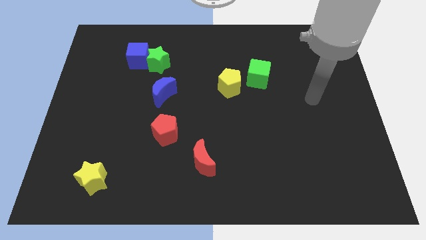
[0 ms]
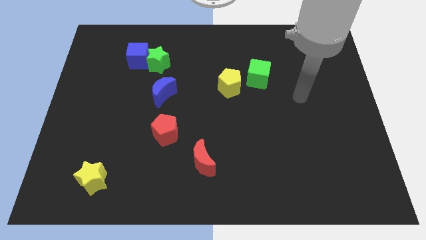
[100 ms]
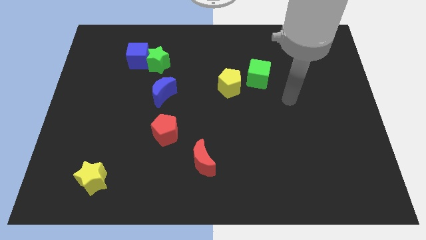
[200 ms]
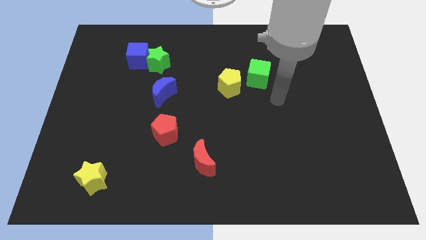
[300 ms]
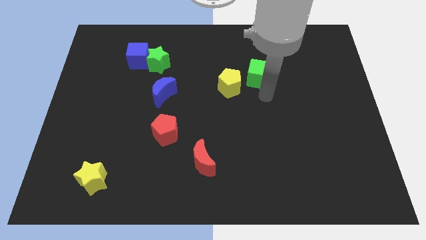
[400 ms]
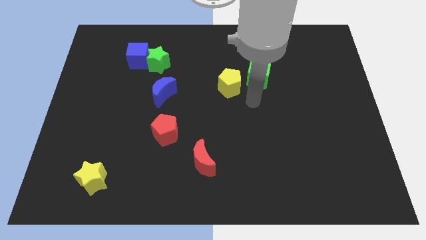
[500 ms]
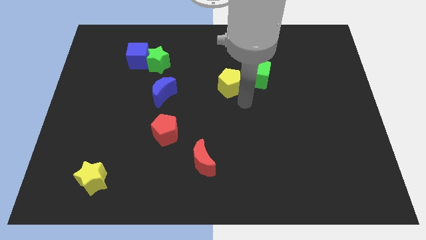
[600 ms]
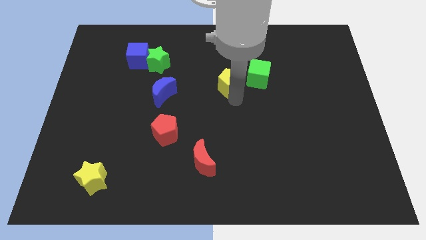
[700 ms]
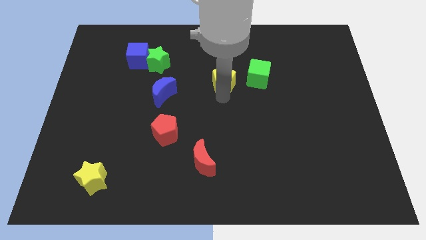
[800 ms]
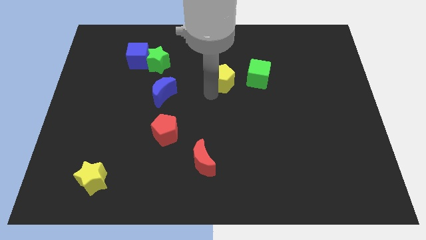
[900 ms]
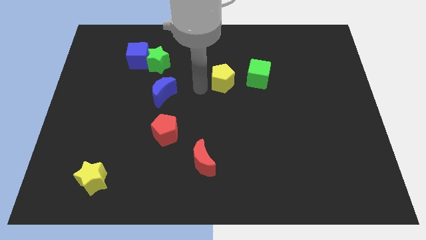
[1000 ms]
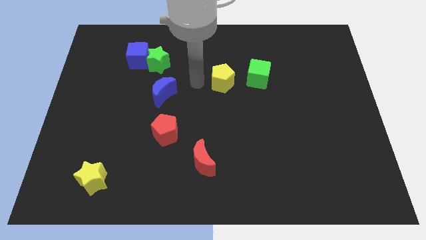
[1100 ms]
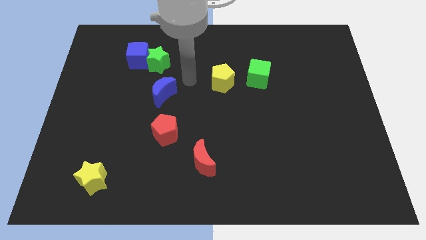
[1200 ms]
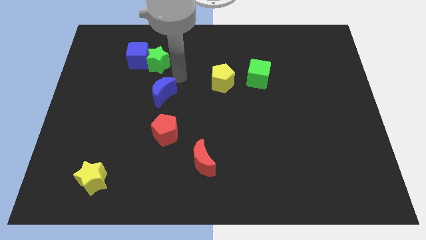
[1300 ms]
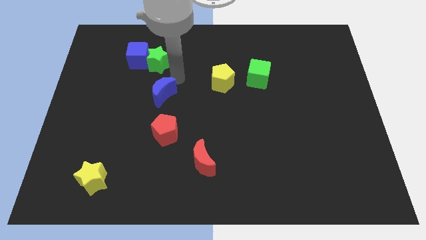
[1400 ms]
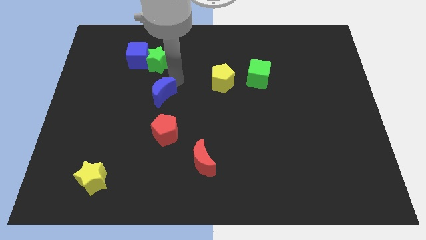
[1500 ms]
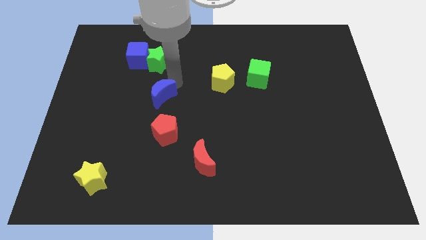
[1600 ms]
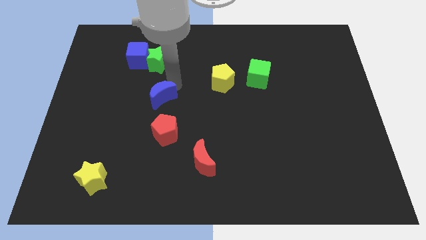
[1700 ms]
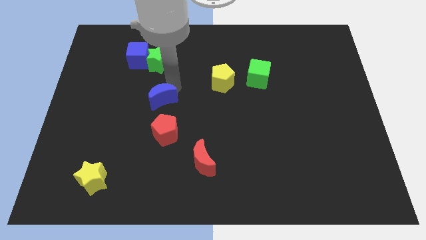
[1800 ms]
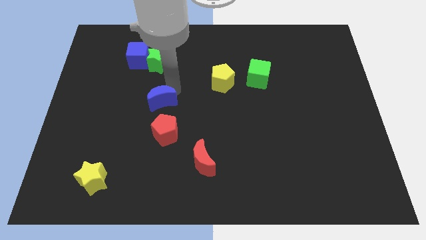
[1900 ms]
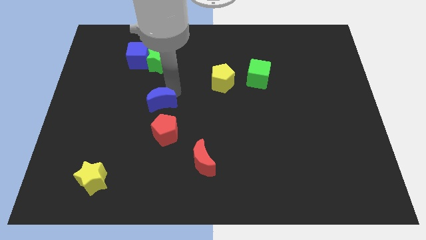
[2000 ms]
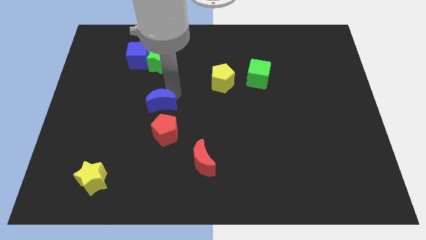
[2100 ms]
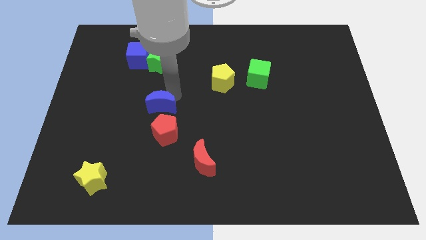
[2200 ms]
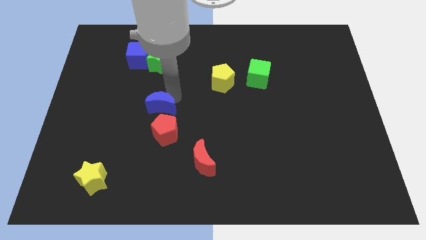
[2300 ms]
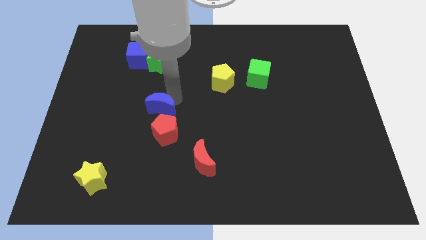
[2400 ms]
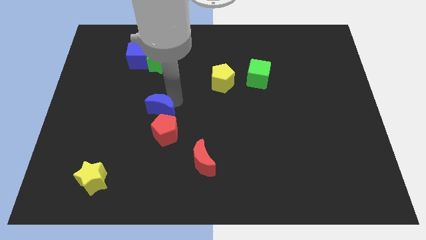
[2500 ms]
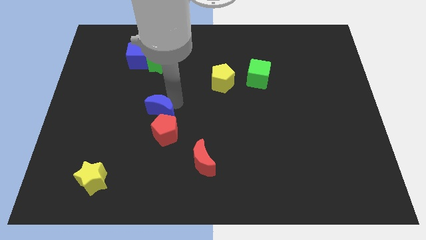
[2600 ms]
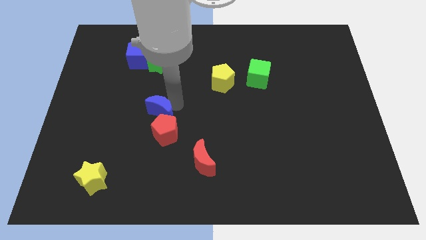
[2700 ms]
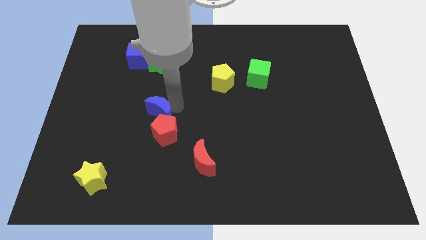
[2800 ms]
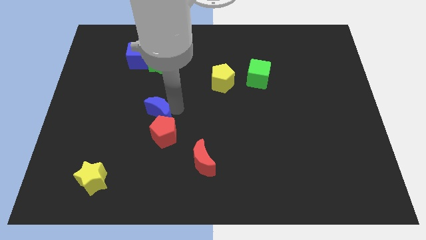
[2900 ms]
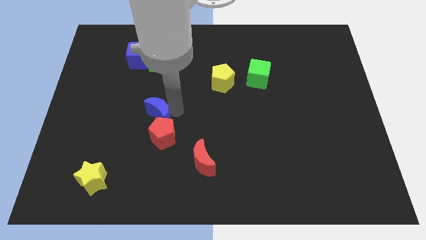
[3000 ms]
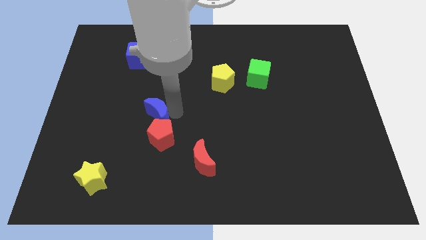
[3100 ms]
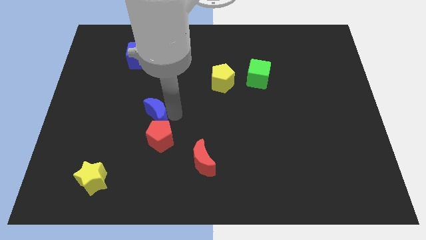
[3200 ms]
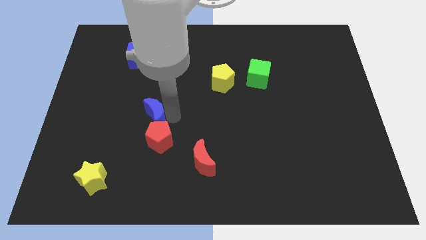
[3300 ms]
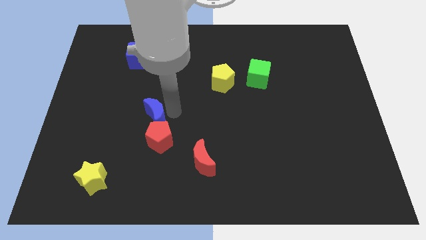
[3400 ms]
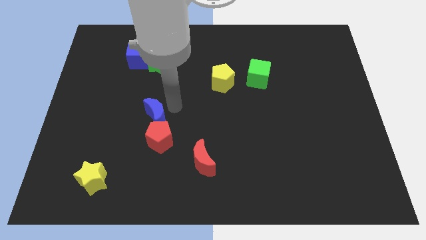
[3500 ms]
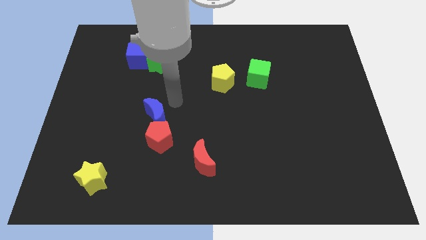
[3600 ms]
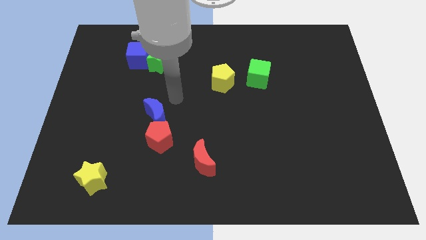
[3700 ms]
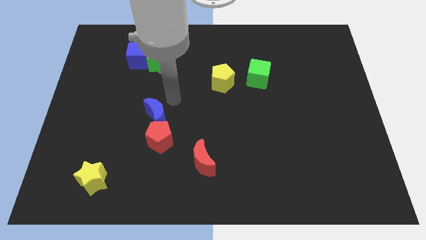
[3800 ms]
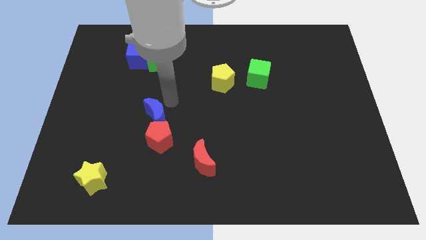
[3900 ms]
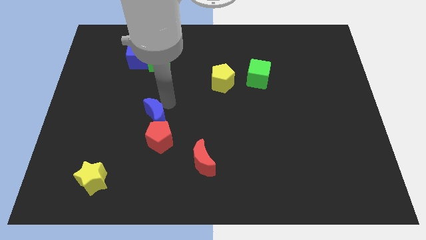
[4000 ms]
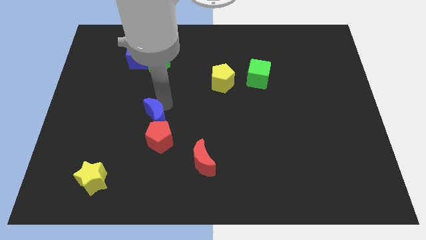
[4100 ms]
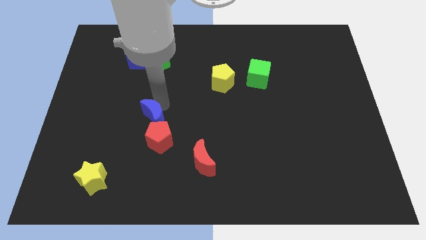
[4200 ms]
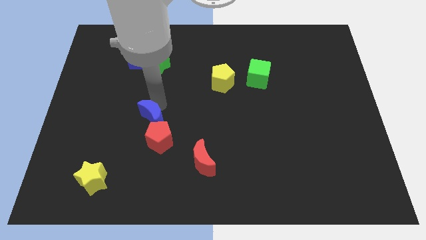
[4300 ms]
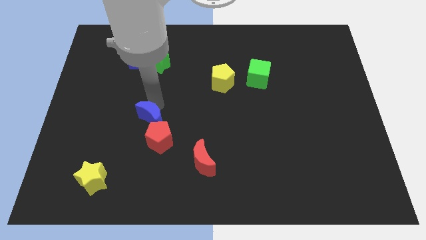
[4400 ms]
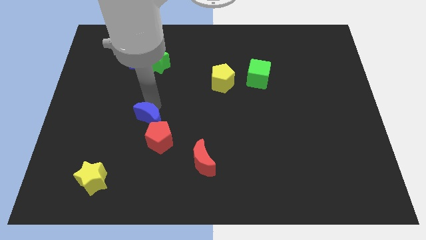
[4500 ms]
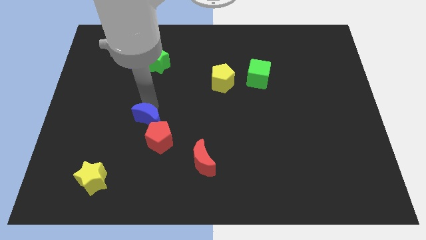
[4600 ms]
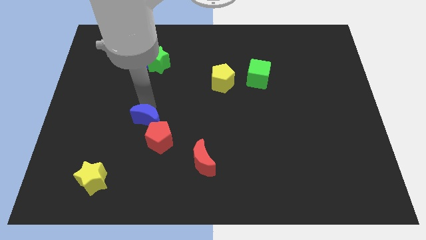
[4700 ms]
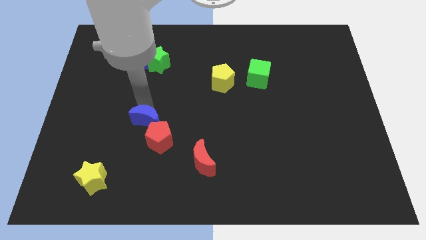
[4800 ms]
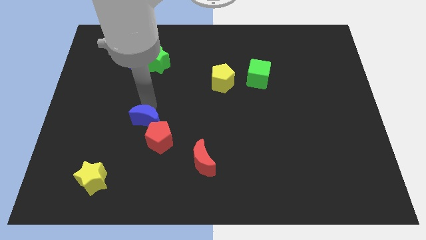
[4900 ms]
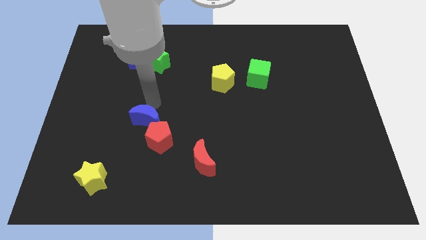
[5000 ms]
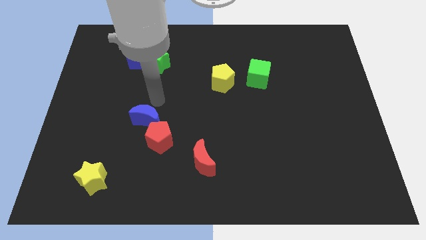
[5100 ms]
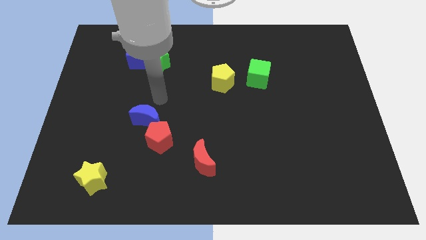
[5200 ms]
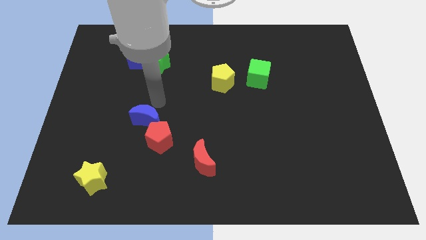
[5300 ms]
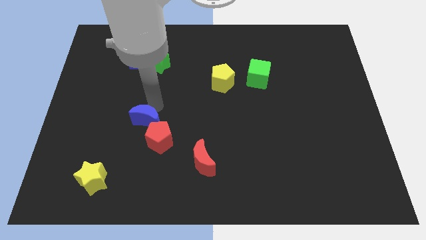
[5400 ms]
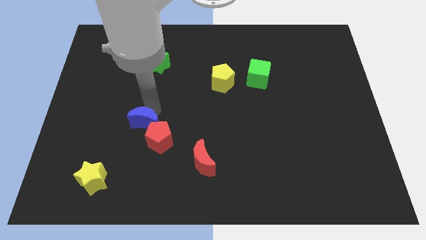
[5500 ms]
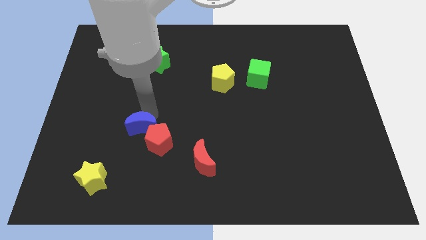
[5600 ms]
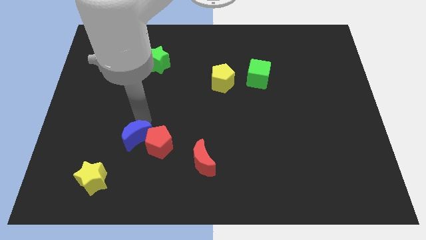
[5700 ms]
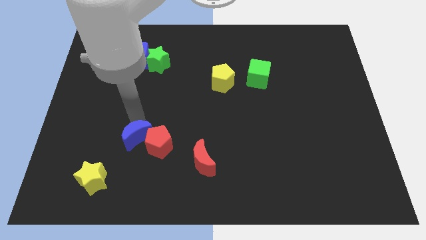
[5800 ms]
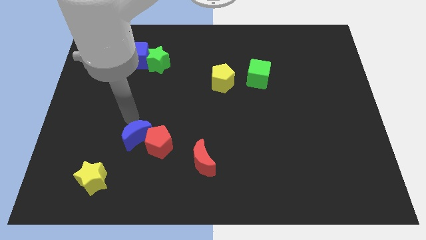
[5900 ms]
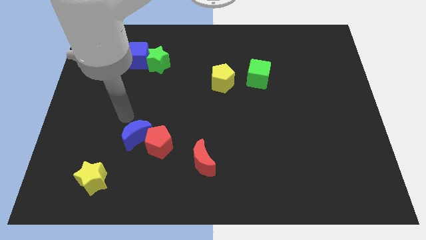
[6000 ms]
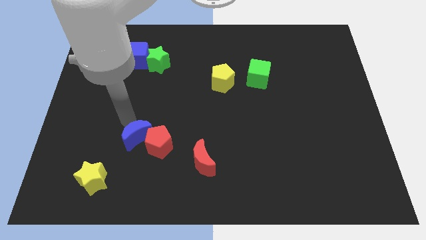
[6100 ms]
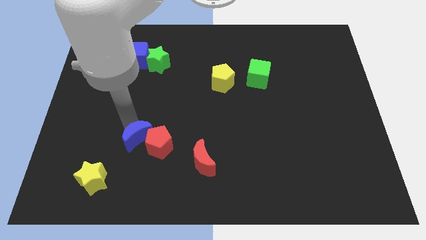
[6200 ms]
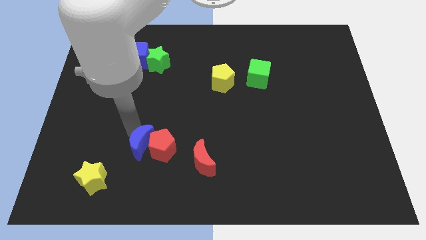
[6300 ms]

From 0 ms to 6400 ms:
put the blue moon left of the red moon

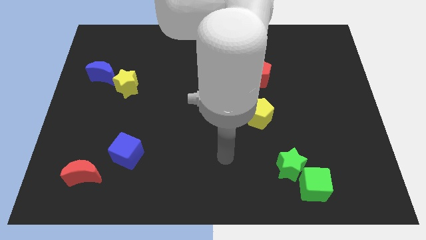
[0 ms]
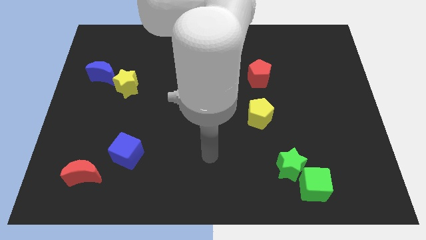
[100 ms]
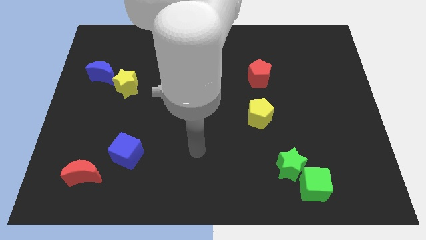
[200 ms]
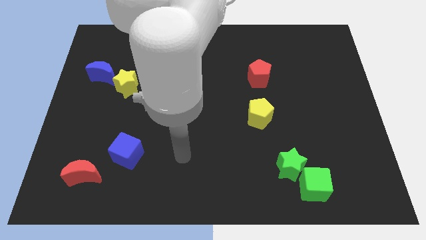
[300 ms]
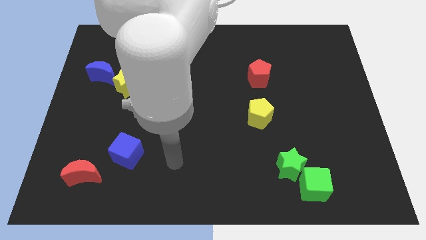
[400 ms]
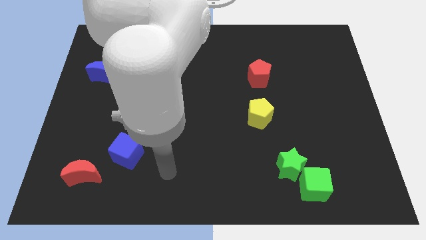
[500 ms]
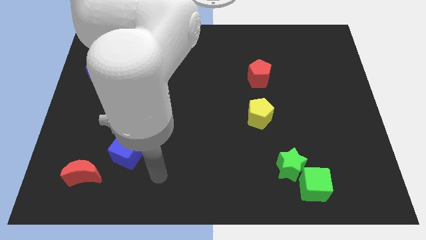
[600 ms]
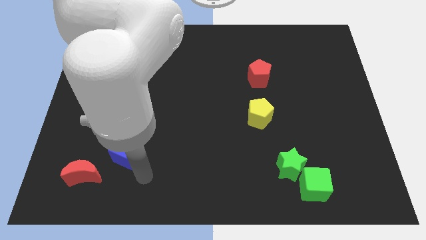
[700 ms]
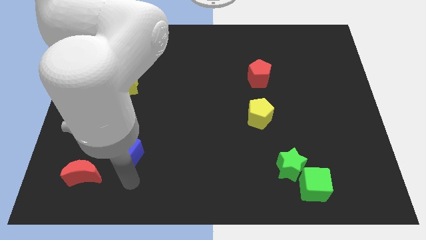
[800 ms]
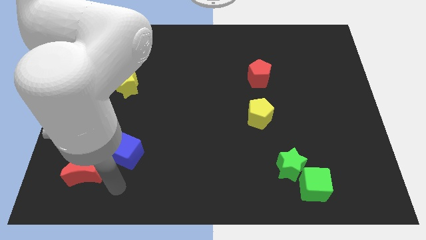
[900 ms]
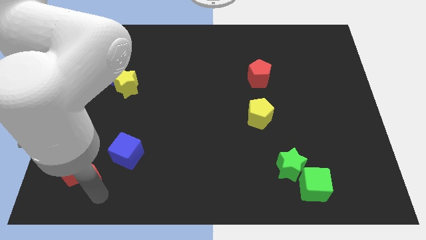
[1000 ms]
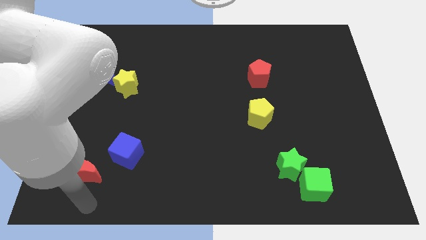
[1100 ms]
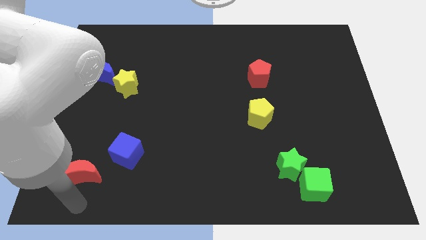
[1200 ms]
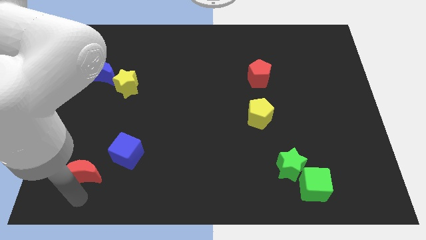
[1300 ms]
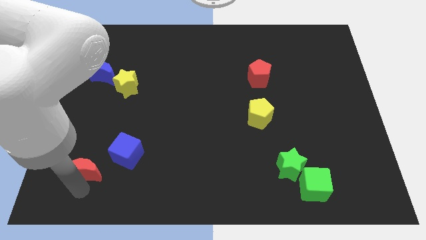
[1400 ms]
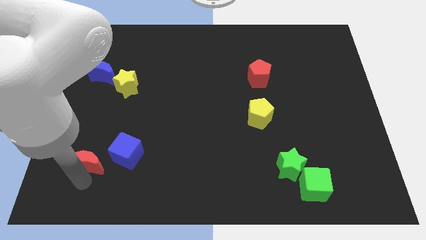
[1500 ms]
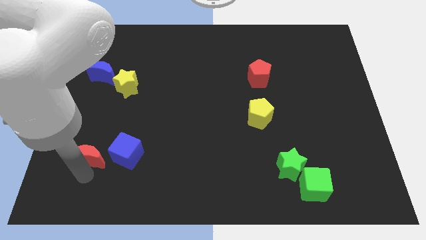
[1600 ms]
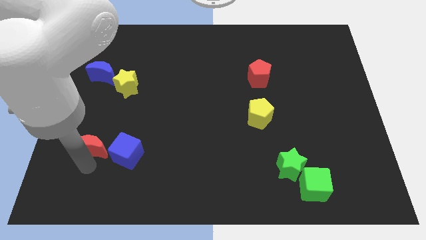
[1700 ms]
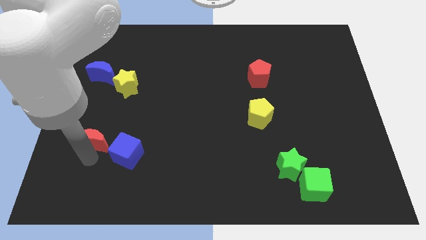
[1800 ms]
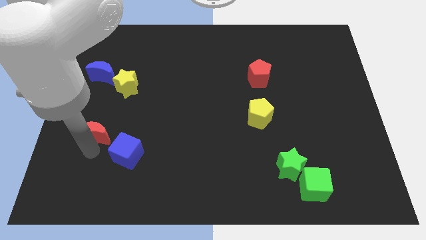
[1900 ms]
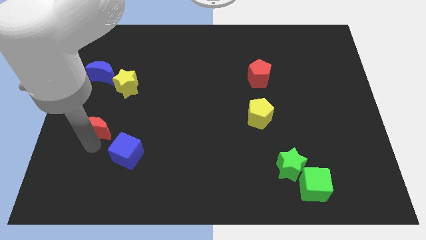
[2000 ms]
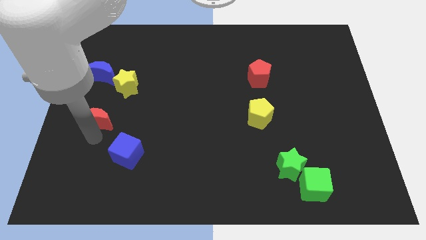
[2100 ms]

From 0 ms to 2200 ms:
put the red moon diagonally down and to the left of the yellow star
